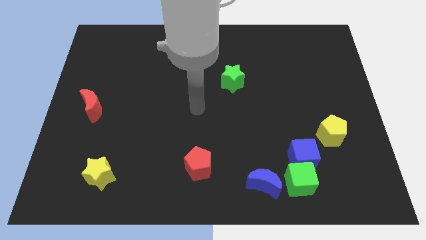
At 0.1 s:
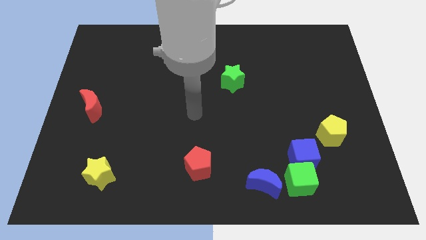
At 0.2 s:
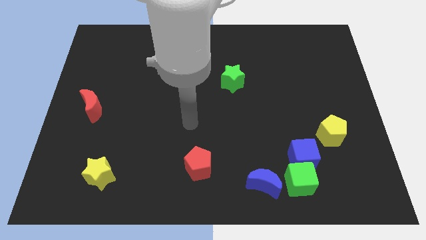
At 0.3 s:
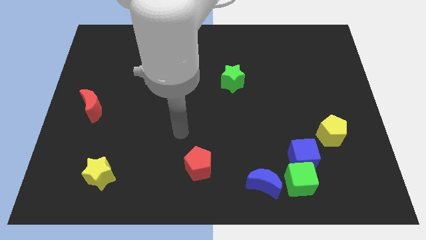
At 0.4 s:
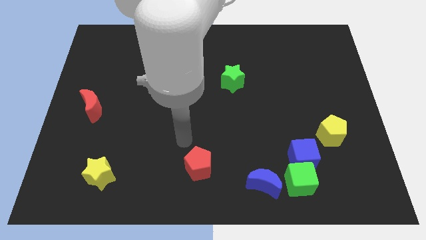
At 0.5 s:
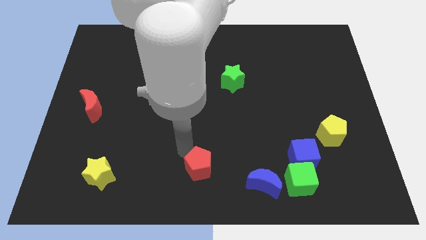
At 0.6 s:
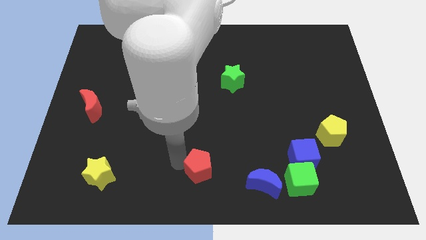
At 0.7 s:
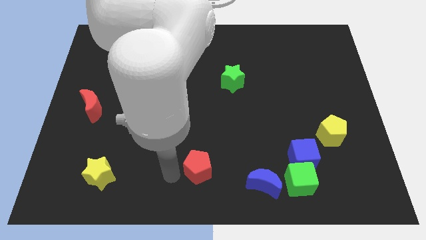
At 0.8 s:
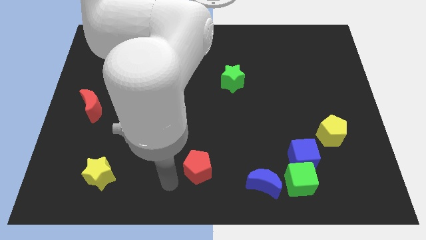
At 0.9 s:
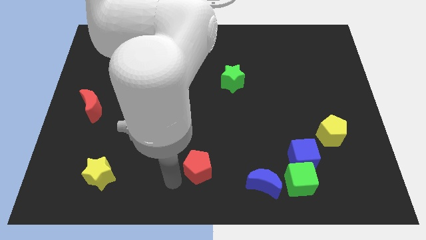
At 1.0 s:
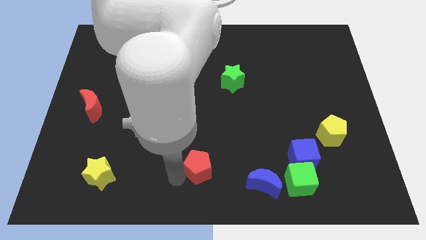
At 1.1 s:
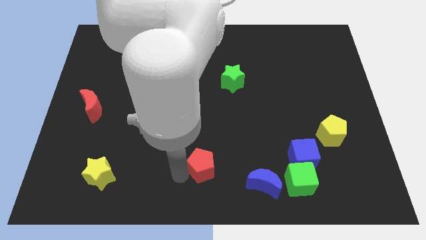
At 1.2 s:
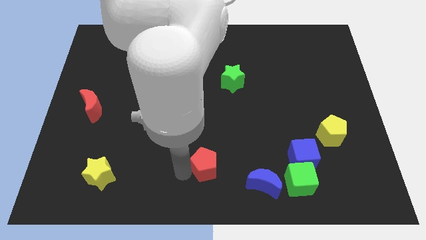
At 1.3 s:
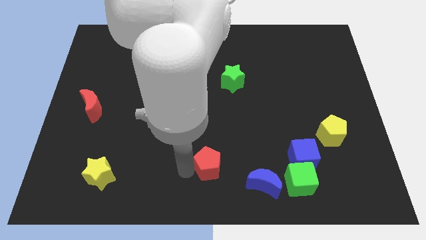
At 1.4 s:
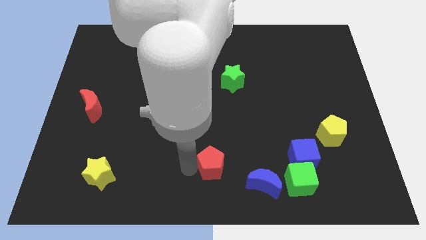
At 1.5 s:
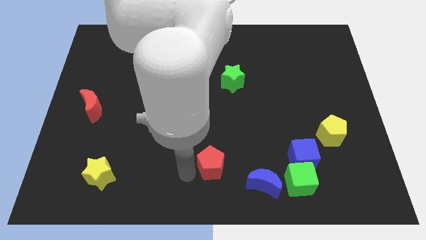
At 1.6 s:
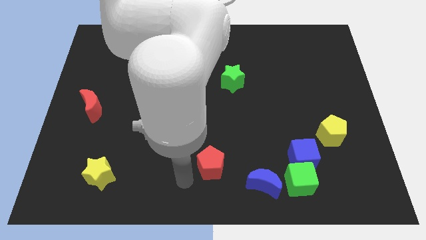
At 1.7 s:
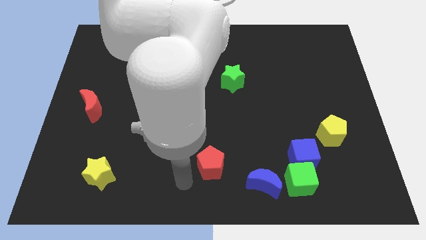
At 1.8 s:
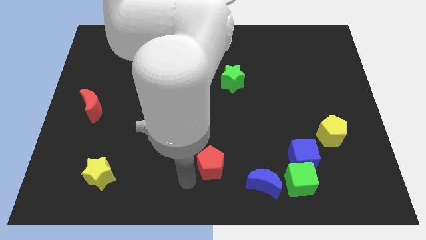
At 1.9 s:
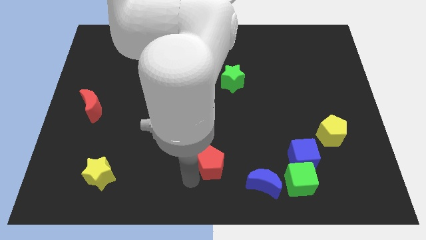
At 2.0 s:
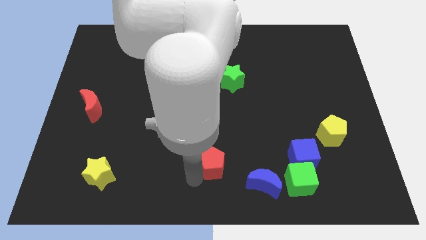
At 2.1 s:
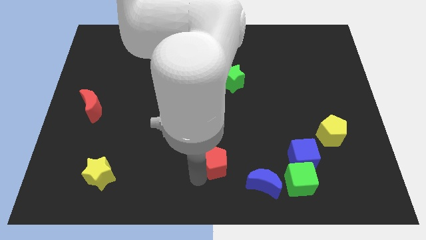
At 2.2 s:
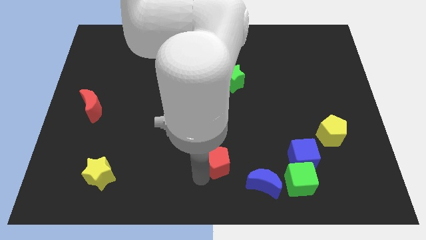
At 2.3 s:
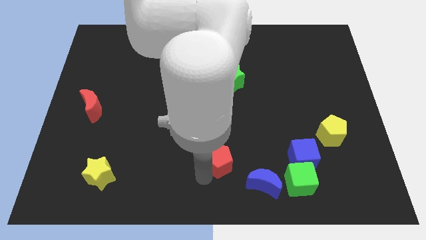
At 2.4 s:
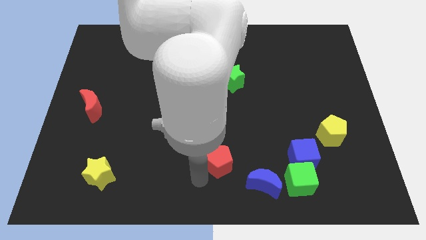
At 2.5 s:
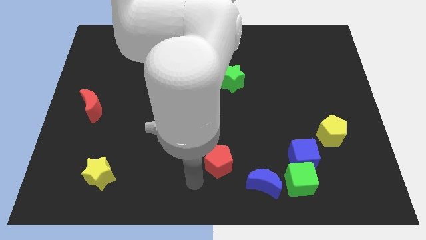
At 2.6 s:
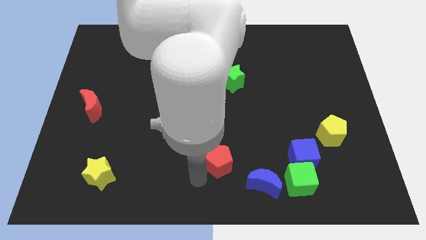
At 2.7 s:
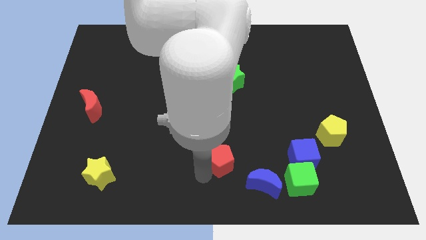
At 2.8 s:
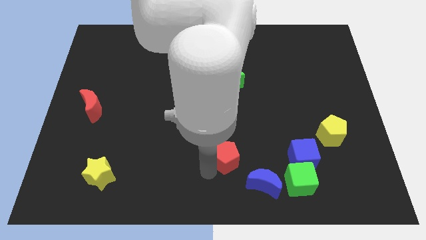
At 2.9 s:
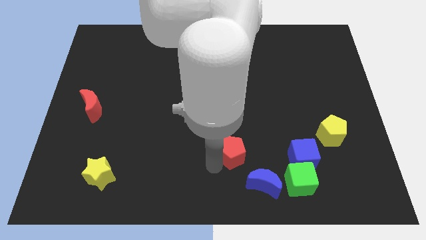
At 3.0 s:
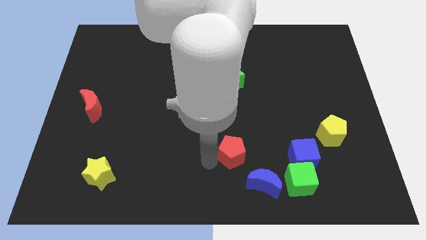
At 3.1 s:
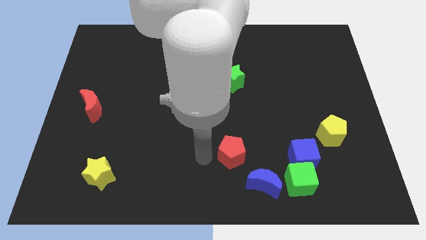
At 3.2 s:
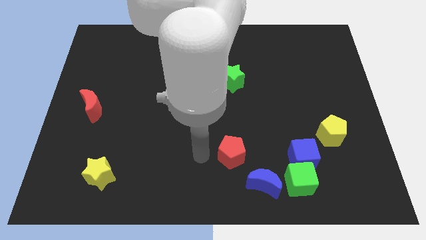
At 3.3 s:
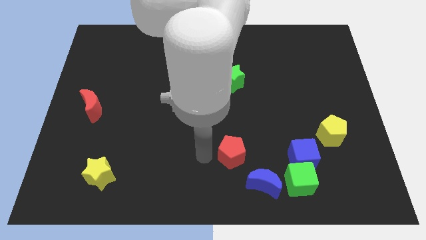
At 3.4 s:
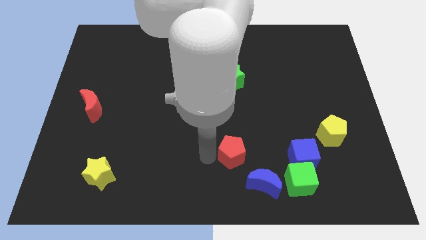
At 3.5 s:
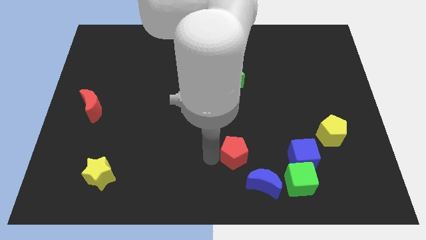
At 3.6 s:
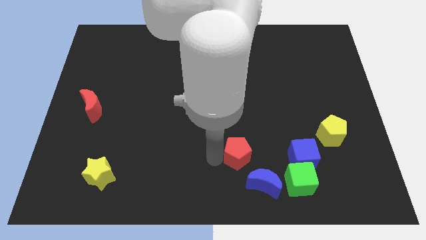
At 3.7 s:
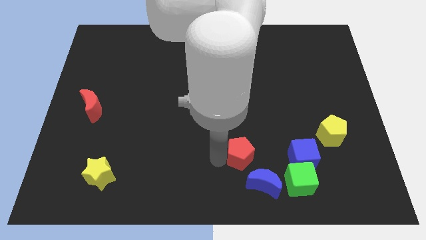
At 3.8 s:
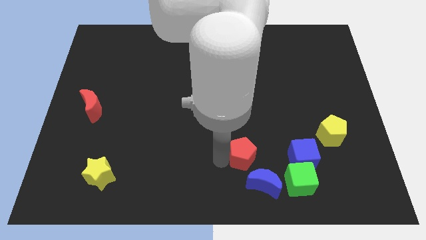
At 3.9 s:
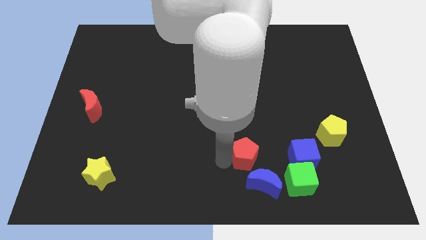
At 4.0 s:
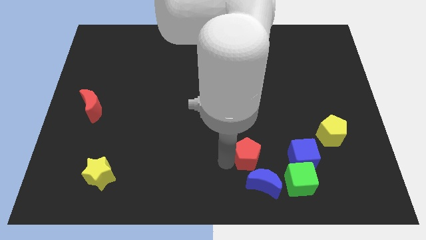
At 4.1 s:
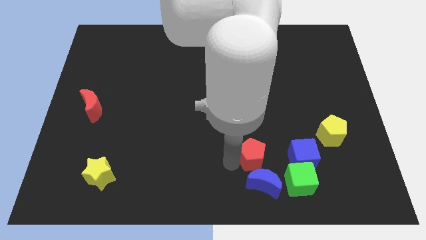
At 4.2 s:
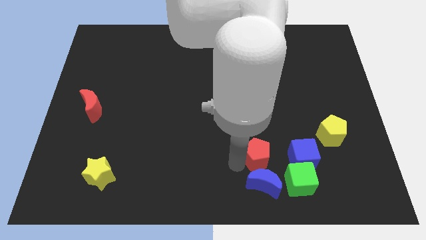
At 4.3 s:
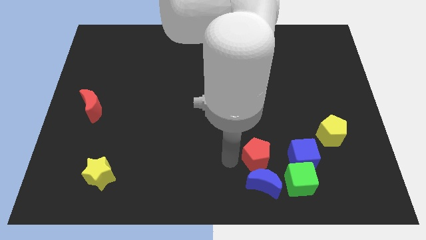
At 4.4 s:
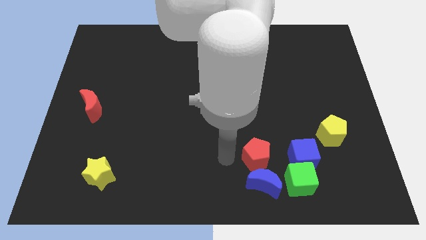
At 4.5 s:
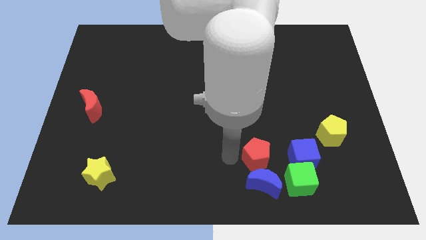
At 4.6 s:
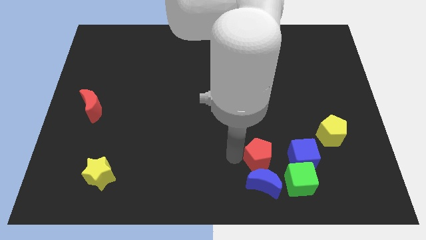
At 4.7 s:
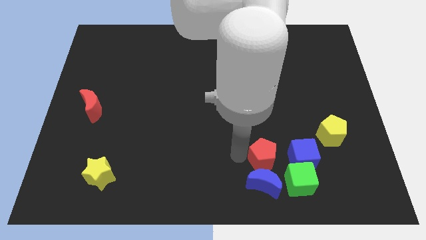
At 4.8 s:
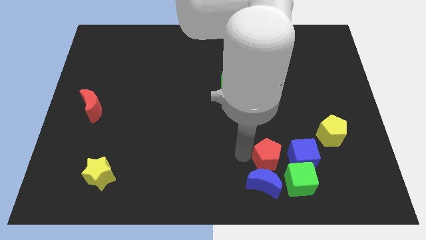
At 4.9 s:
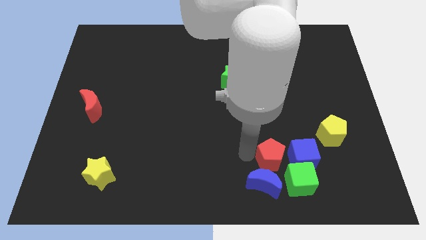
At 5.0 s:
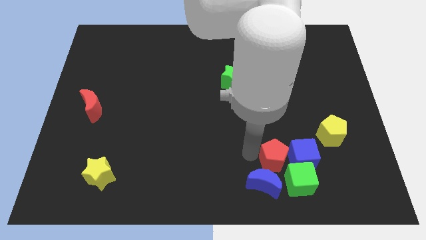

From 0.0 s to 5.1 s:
slide the red pentagon close to the blue cube

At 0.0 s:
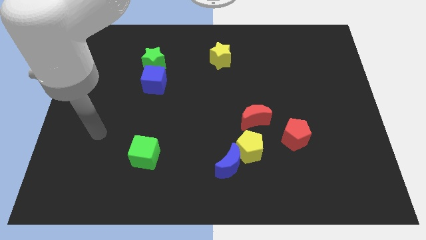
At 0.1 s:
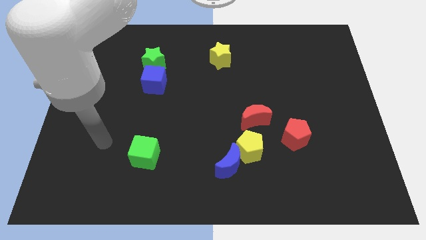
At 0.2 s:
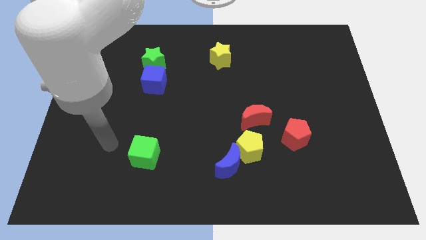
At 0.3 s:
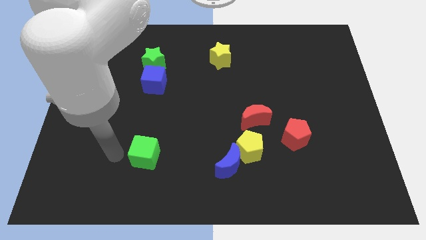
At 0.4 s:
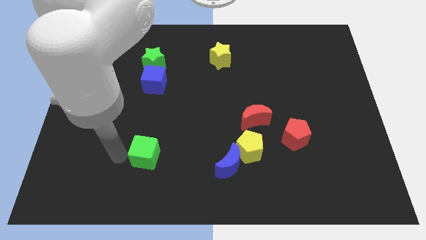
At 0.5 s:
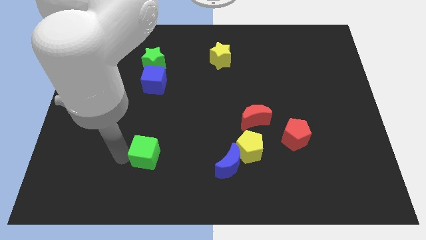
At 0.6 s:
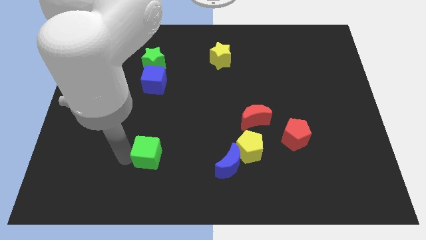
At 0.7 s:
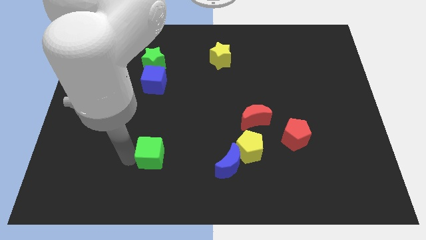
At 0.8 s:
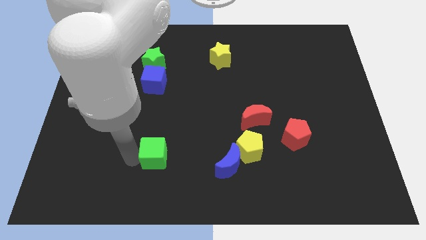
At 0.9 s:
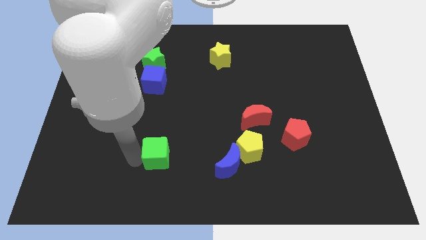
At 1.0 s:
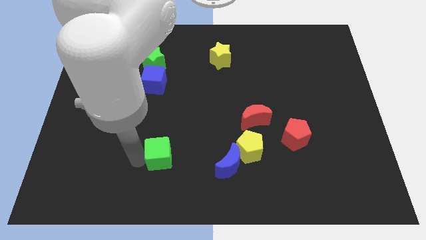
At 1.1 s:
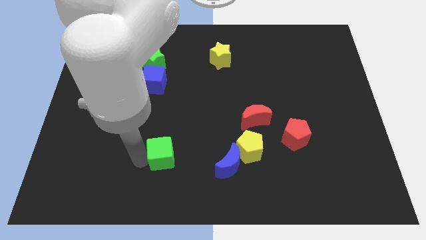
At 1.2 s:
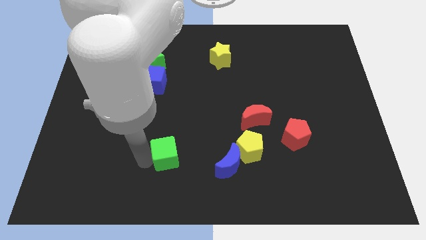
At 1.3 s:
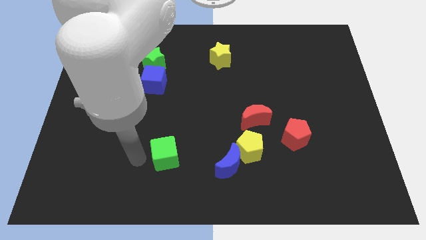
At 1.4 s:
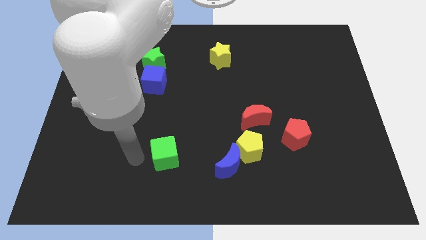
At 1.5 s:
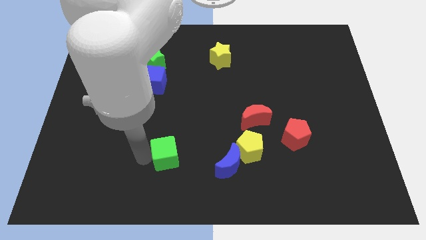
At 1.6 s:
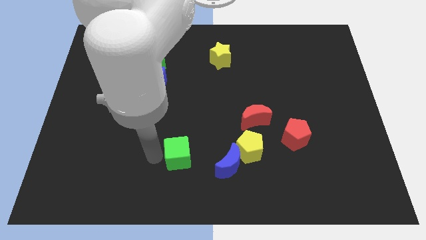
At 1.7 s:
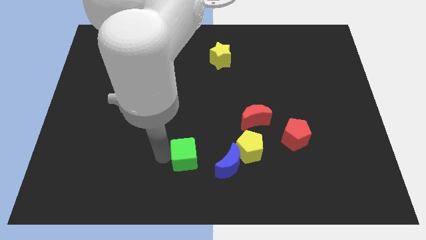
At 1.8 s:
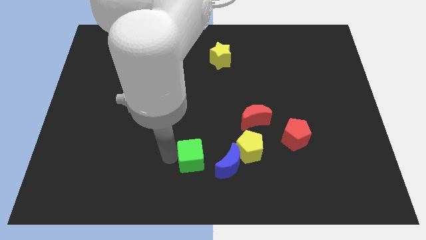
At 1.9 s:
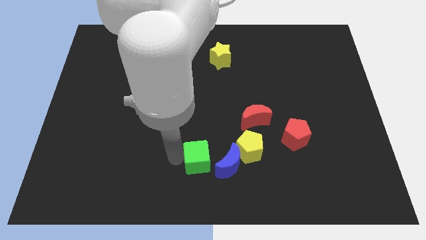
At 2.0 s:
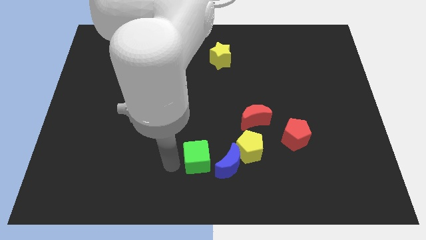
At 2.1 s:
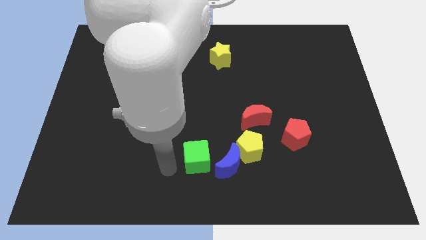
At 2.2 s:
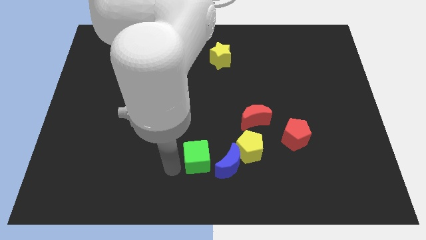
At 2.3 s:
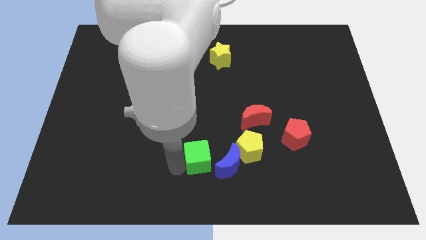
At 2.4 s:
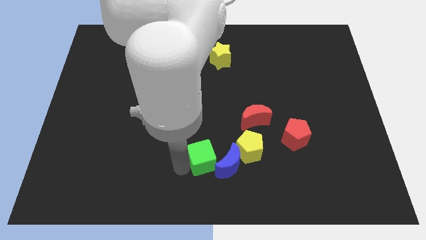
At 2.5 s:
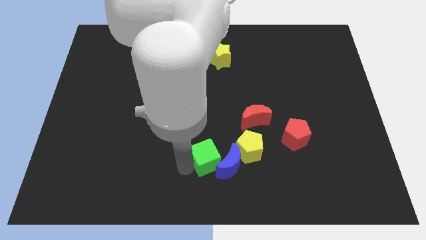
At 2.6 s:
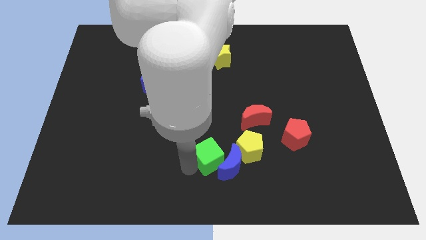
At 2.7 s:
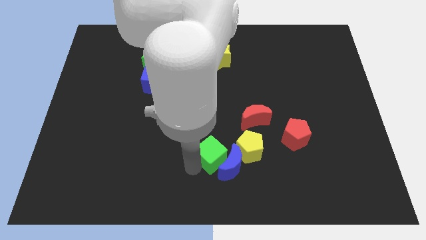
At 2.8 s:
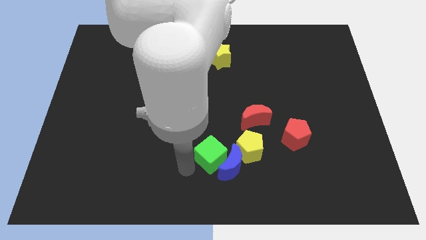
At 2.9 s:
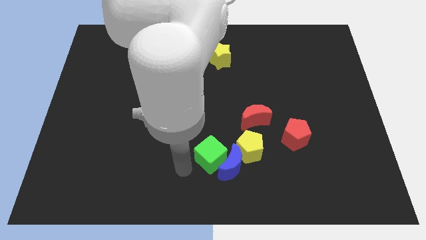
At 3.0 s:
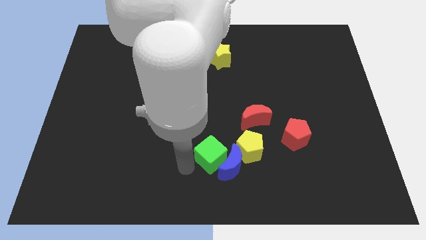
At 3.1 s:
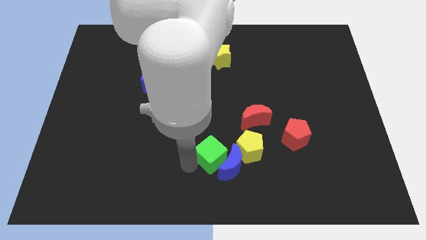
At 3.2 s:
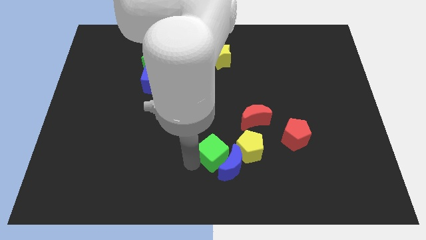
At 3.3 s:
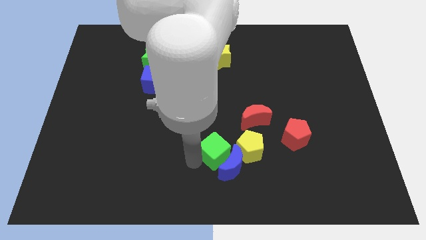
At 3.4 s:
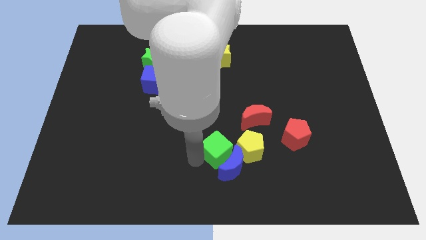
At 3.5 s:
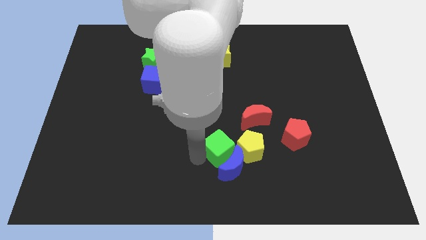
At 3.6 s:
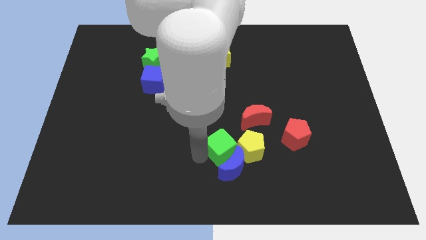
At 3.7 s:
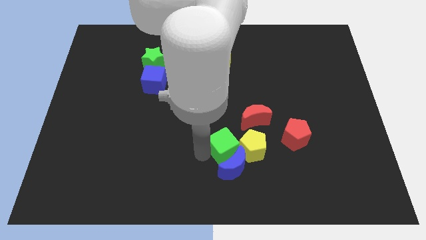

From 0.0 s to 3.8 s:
move the green cube towards the yellow pentagon
